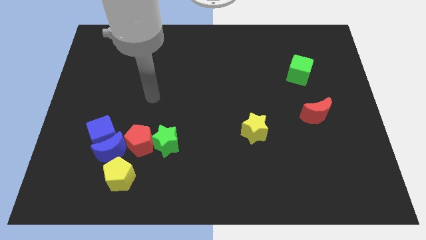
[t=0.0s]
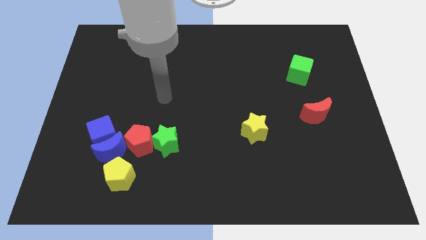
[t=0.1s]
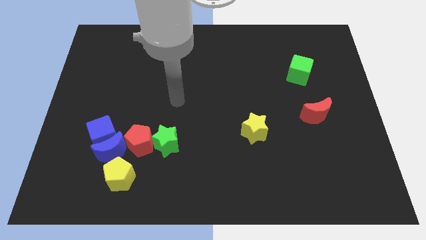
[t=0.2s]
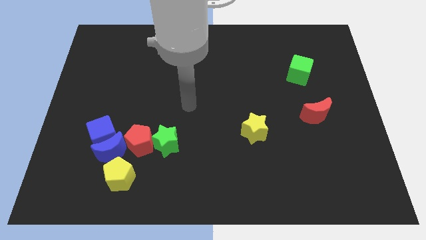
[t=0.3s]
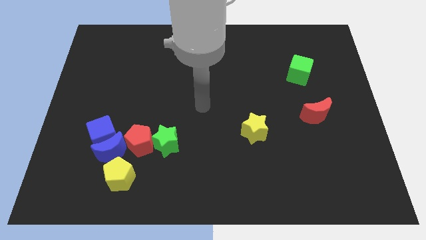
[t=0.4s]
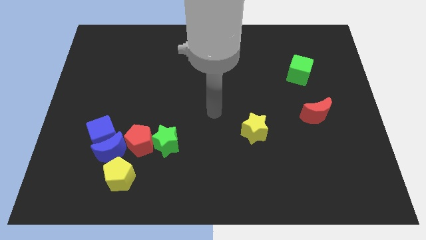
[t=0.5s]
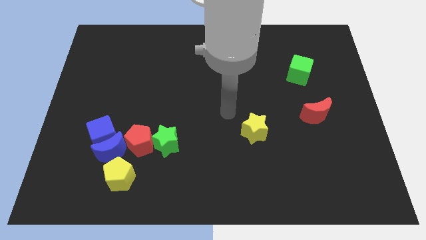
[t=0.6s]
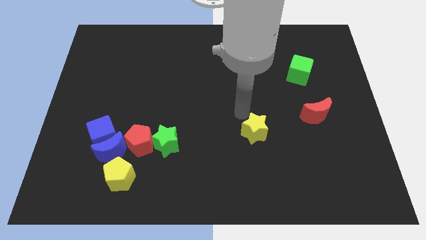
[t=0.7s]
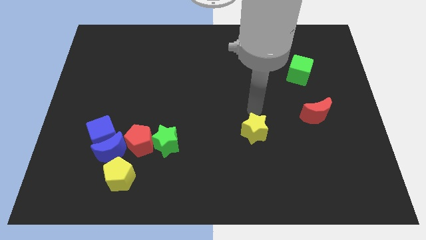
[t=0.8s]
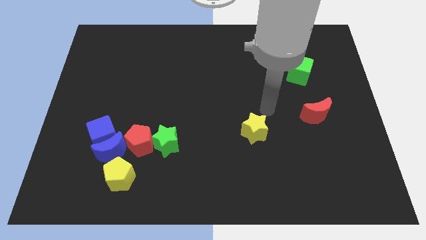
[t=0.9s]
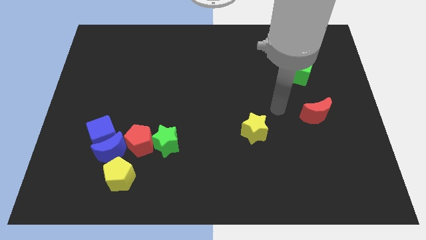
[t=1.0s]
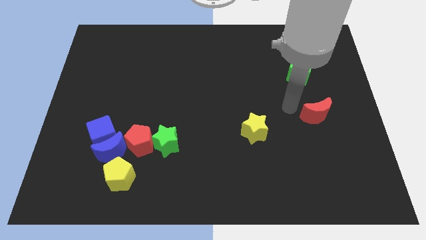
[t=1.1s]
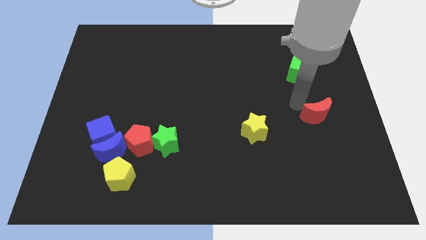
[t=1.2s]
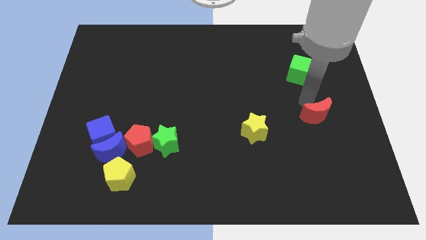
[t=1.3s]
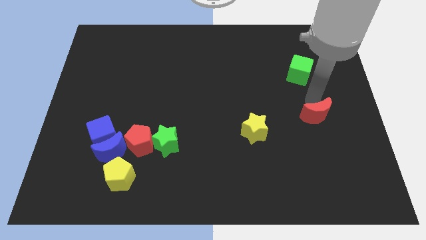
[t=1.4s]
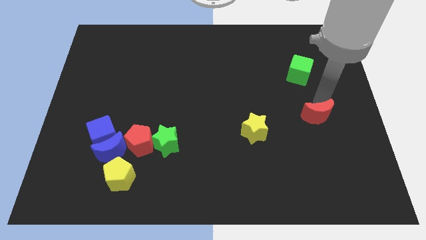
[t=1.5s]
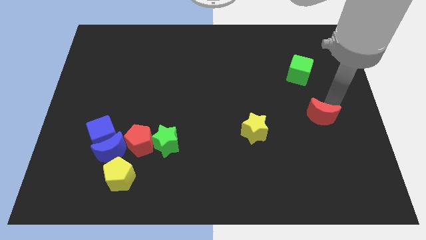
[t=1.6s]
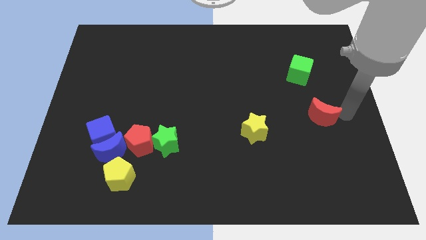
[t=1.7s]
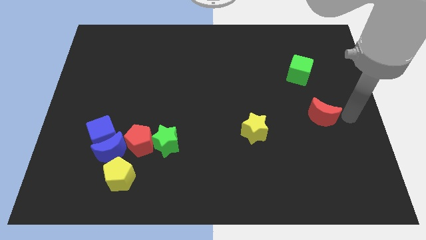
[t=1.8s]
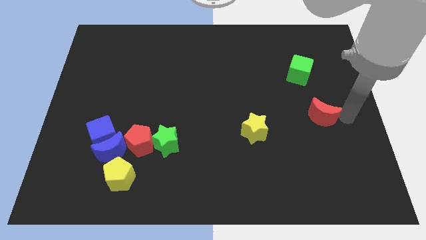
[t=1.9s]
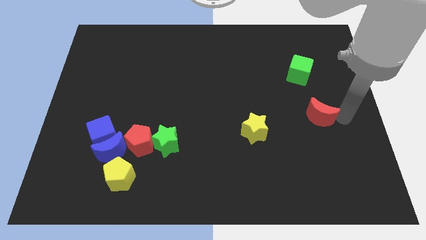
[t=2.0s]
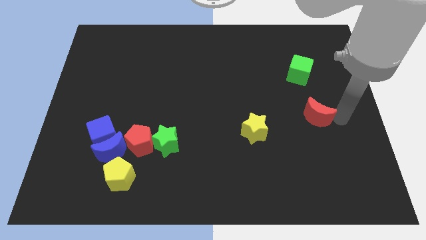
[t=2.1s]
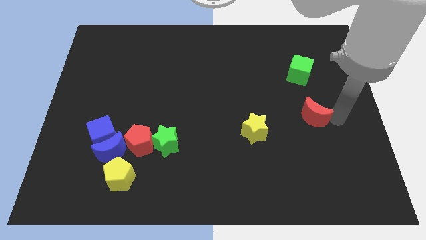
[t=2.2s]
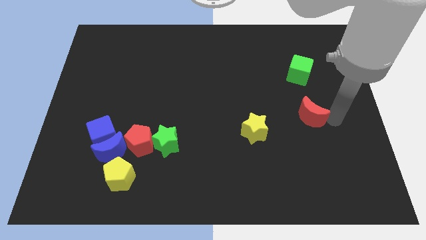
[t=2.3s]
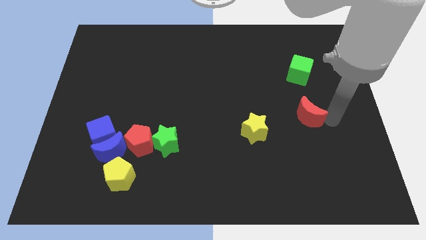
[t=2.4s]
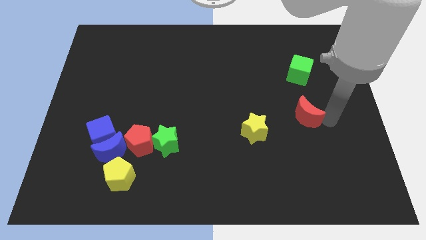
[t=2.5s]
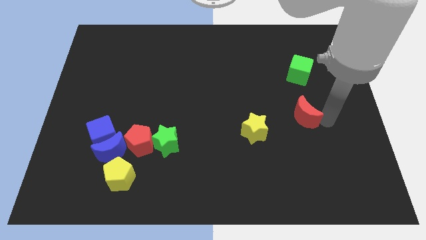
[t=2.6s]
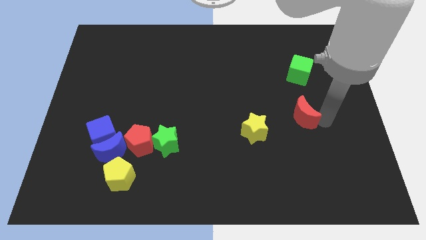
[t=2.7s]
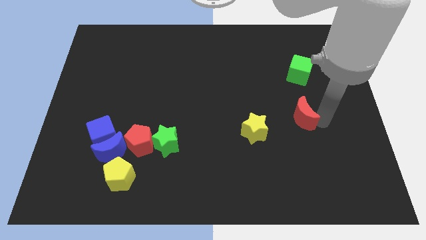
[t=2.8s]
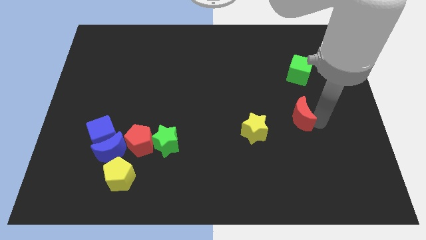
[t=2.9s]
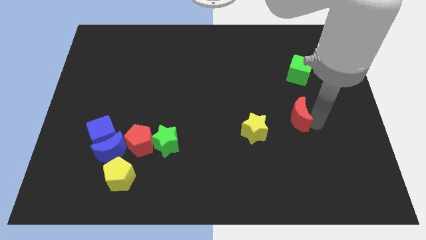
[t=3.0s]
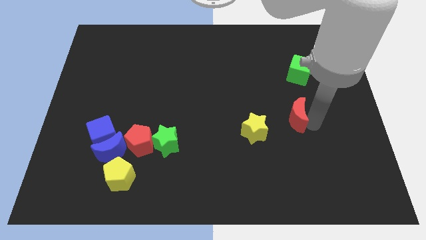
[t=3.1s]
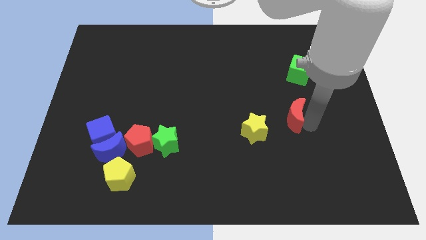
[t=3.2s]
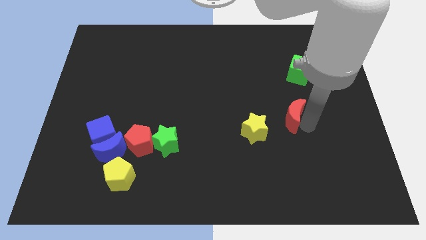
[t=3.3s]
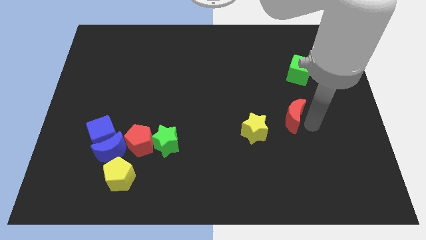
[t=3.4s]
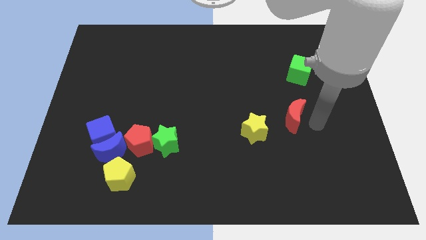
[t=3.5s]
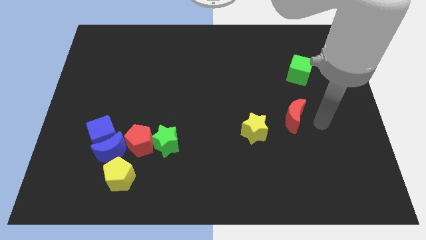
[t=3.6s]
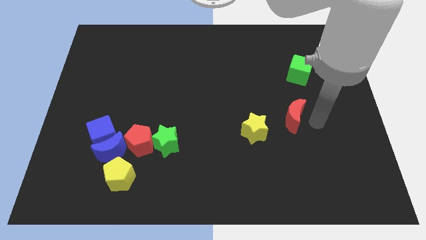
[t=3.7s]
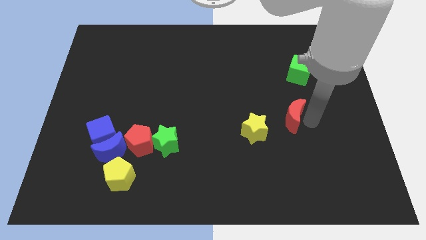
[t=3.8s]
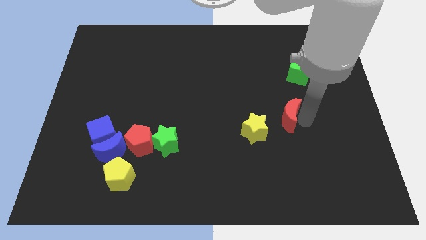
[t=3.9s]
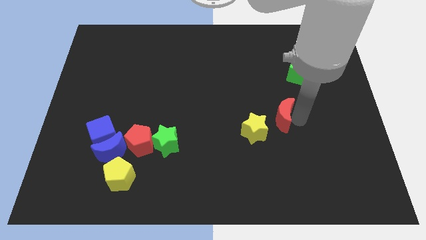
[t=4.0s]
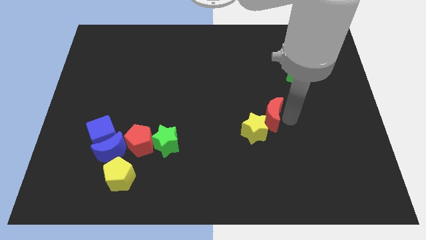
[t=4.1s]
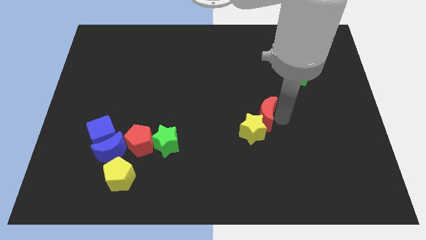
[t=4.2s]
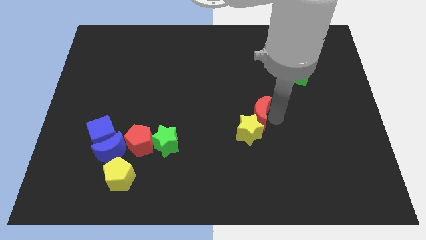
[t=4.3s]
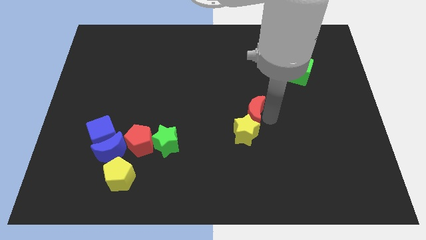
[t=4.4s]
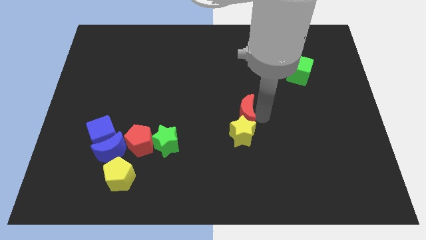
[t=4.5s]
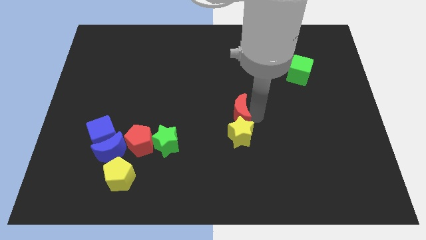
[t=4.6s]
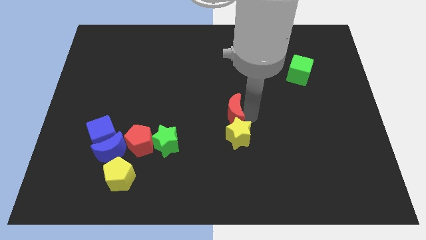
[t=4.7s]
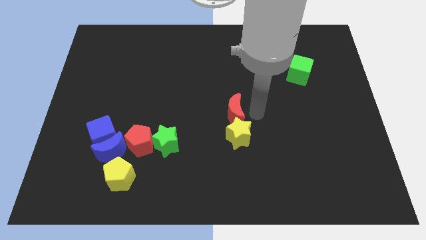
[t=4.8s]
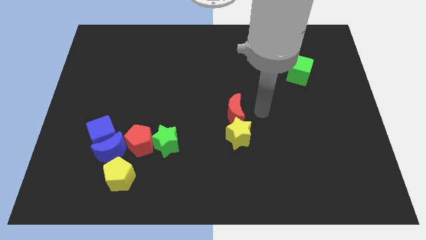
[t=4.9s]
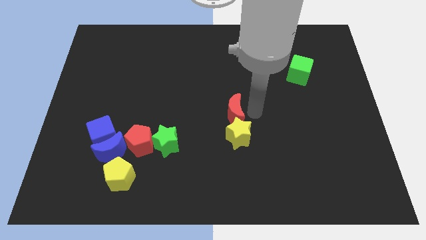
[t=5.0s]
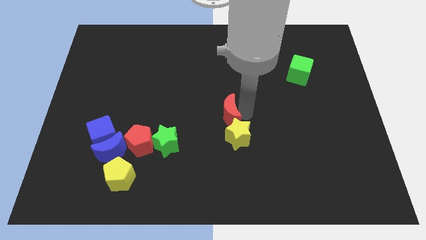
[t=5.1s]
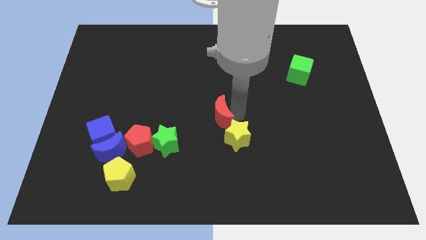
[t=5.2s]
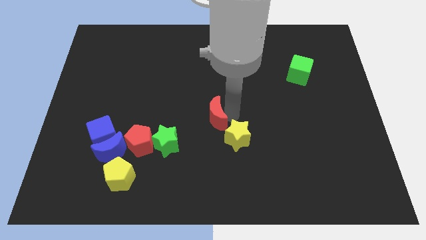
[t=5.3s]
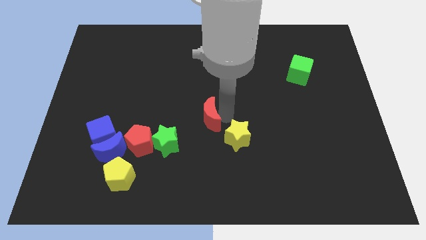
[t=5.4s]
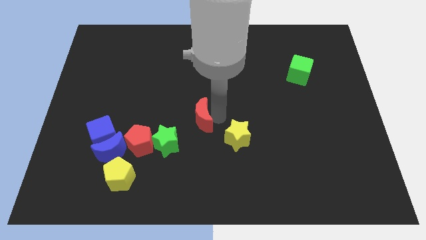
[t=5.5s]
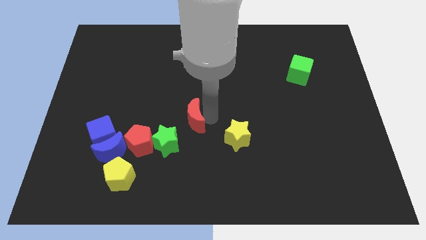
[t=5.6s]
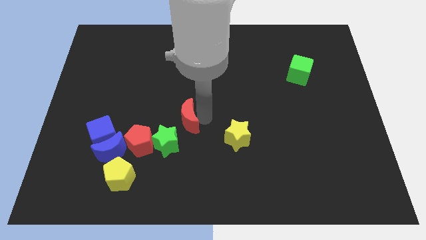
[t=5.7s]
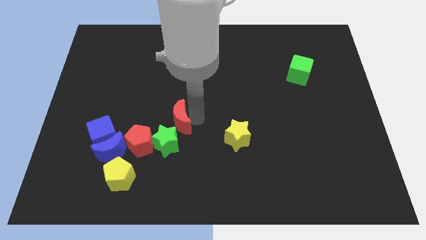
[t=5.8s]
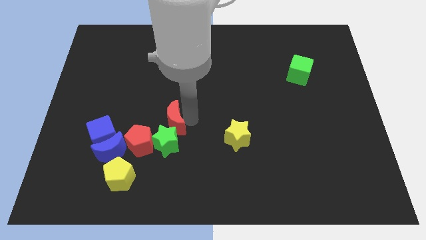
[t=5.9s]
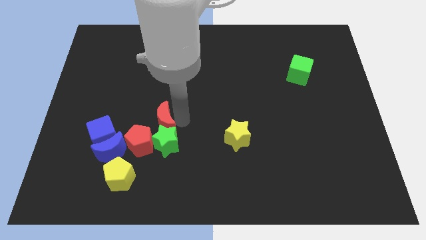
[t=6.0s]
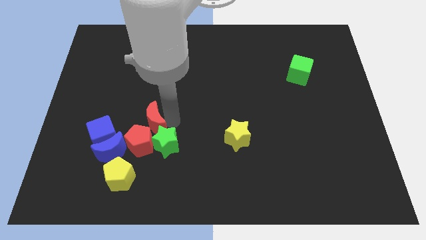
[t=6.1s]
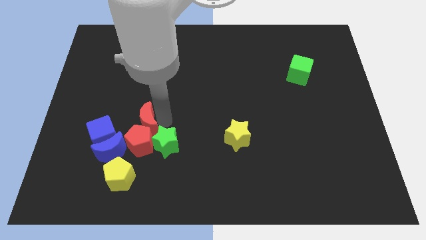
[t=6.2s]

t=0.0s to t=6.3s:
move the red moon to the top side of the yellow pentagon

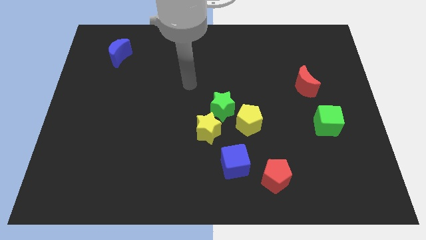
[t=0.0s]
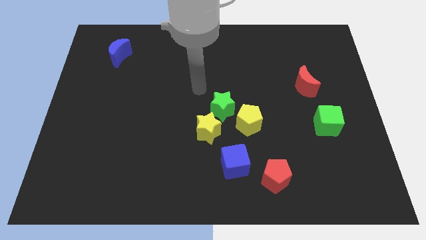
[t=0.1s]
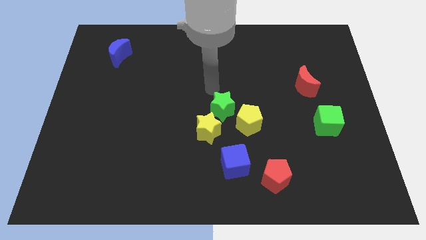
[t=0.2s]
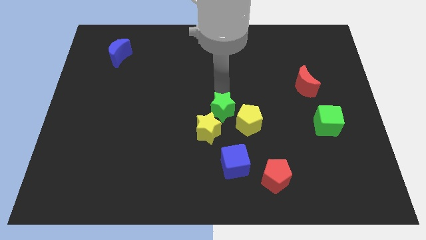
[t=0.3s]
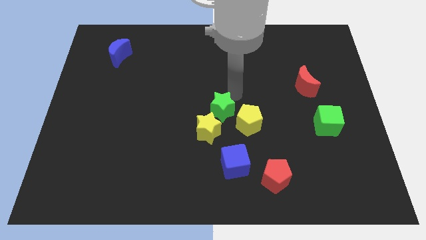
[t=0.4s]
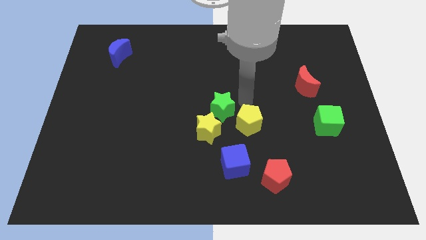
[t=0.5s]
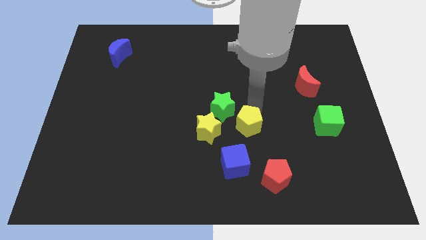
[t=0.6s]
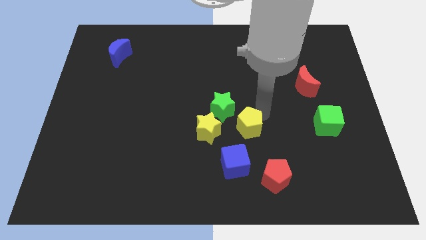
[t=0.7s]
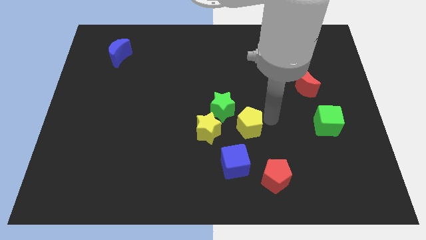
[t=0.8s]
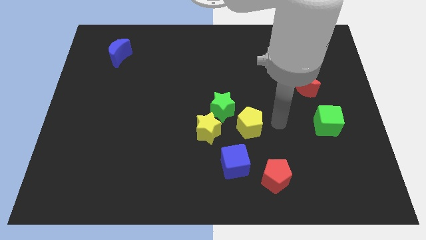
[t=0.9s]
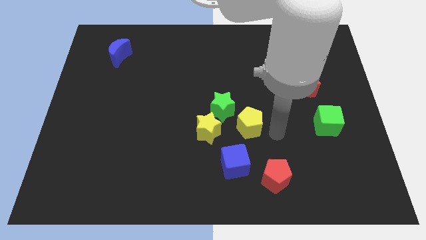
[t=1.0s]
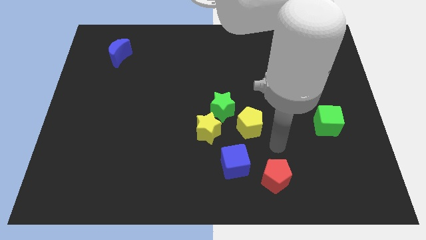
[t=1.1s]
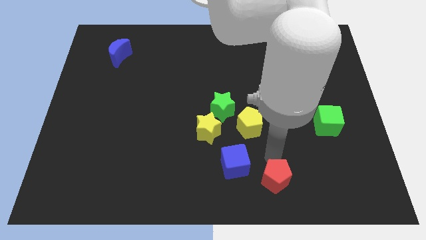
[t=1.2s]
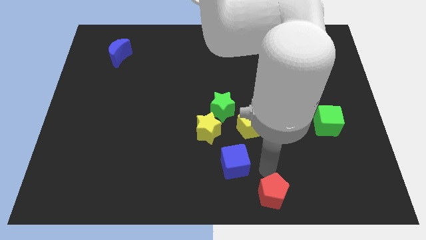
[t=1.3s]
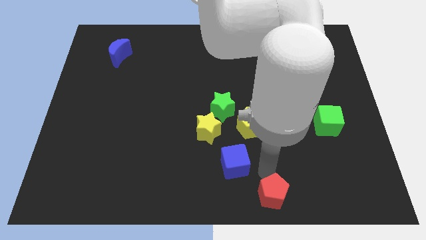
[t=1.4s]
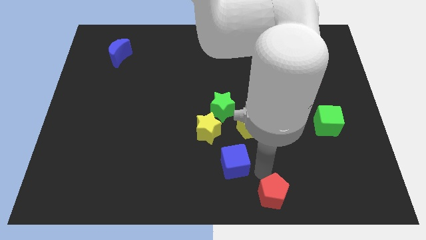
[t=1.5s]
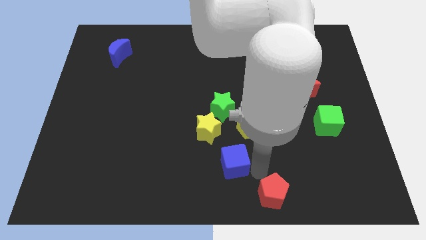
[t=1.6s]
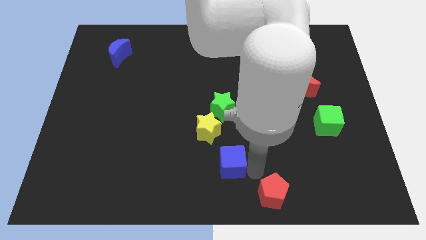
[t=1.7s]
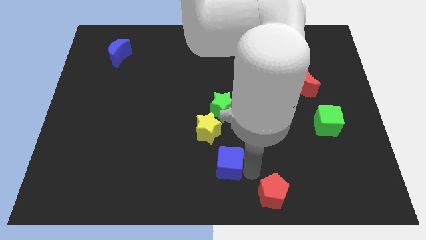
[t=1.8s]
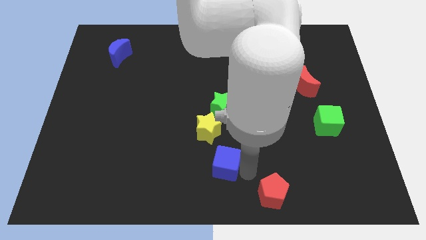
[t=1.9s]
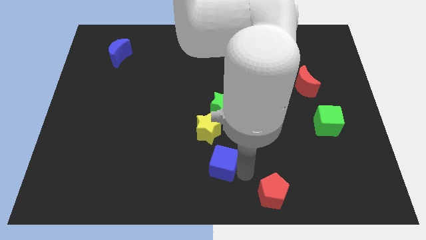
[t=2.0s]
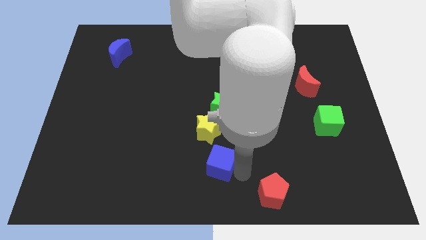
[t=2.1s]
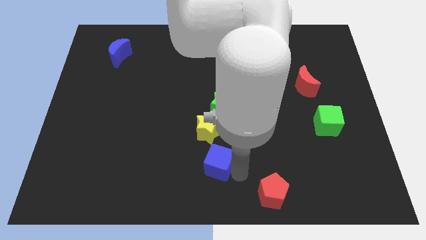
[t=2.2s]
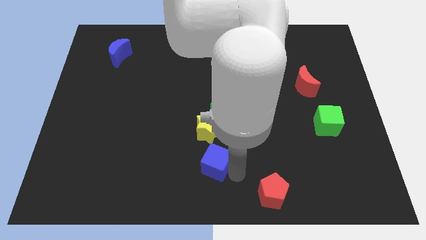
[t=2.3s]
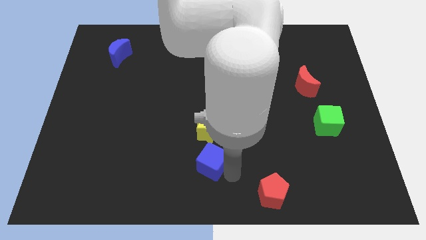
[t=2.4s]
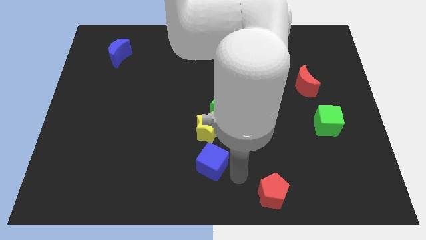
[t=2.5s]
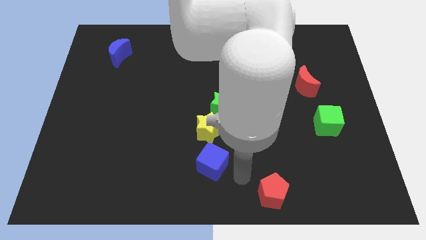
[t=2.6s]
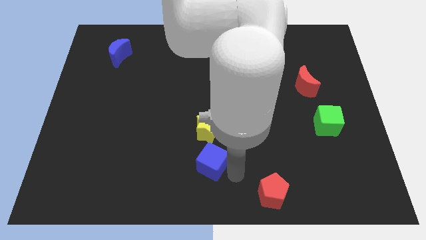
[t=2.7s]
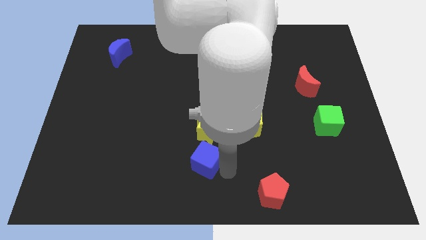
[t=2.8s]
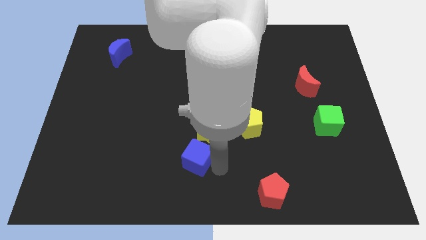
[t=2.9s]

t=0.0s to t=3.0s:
move the blue cube to the bottom left side of the yellow star
